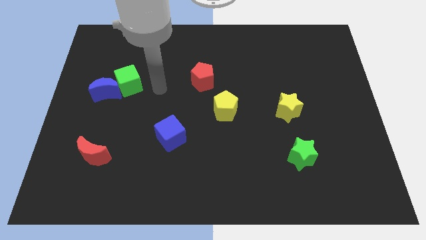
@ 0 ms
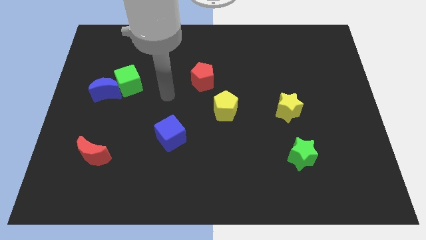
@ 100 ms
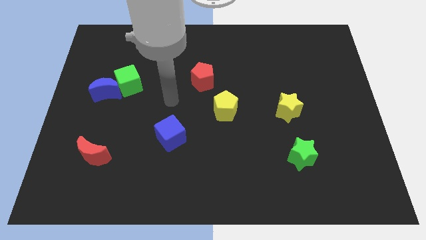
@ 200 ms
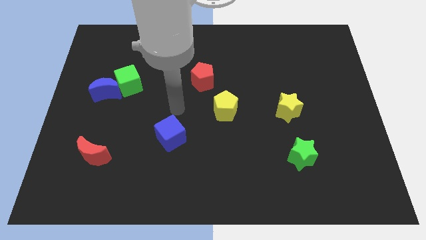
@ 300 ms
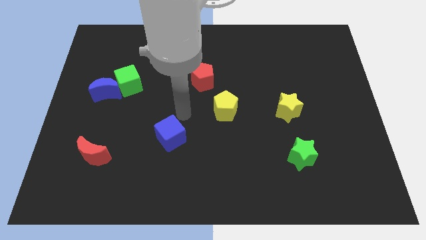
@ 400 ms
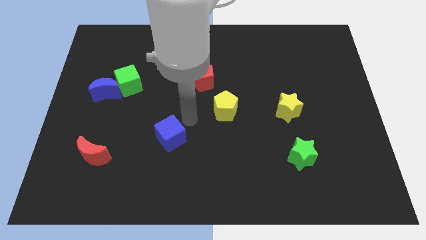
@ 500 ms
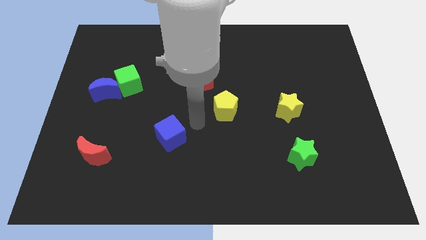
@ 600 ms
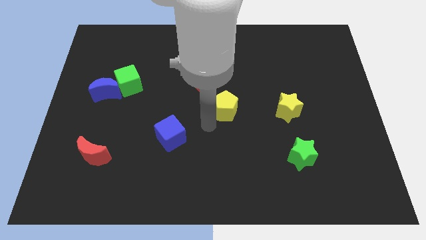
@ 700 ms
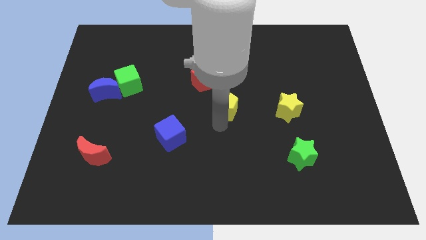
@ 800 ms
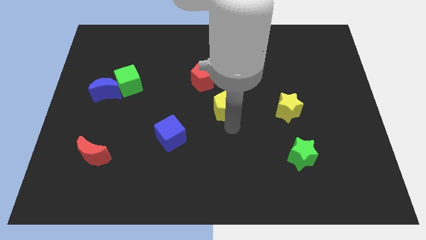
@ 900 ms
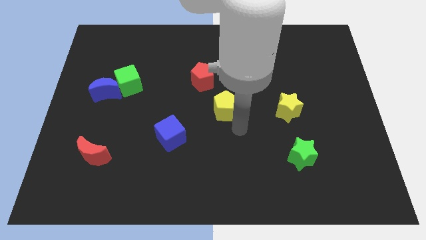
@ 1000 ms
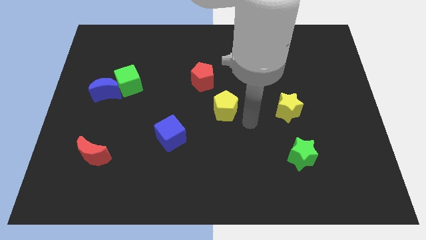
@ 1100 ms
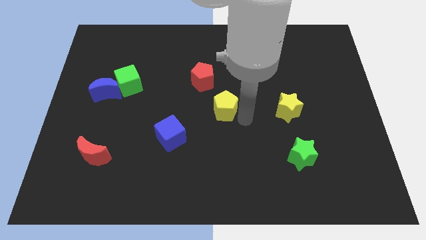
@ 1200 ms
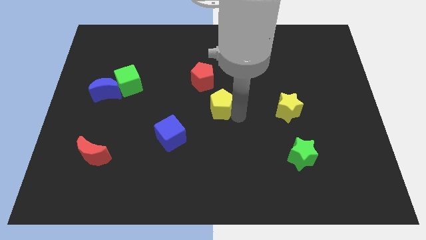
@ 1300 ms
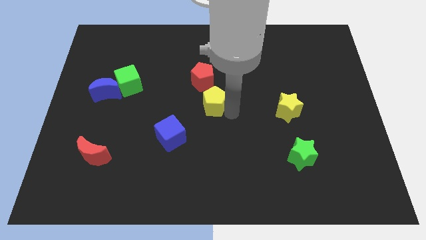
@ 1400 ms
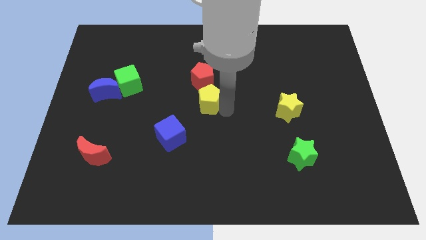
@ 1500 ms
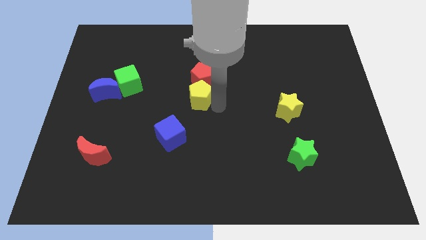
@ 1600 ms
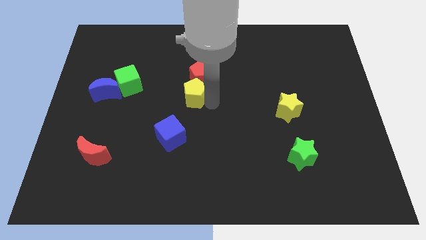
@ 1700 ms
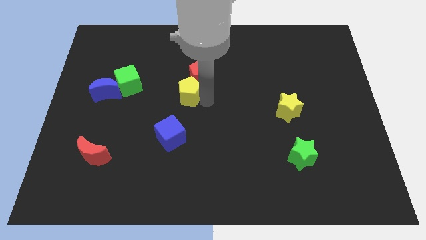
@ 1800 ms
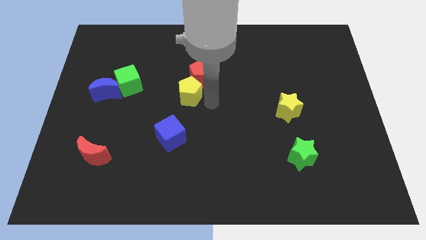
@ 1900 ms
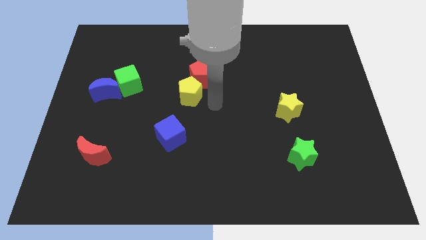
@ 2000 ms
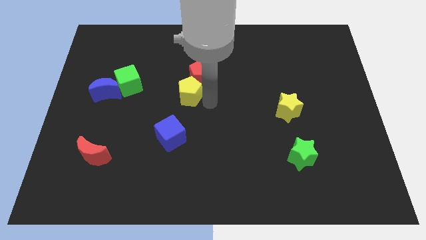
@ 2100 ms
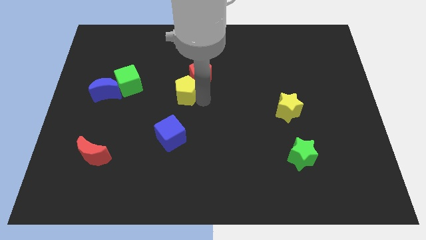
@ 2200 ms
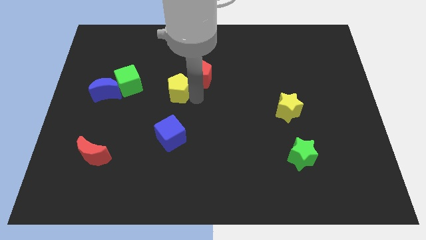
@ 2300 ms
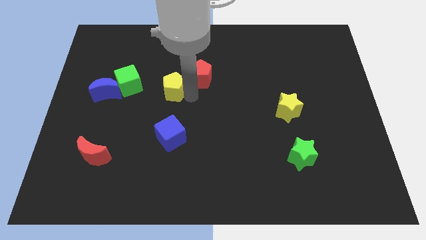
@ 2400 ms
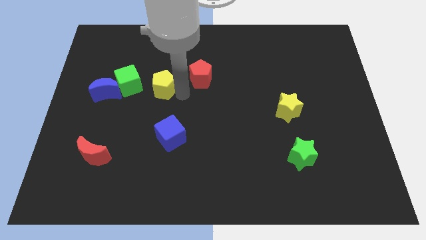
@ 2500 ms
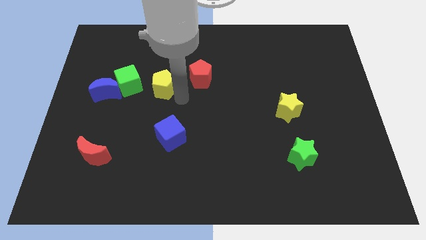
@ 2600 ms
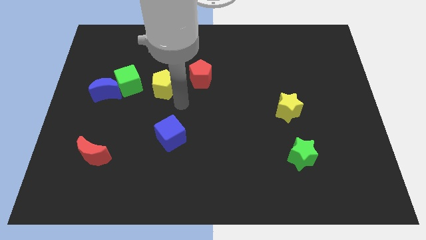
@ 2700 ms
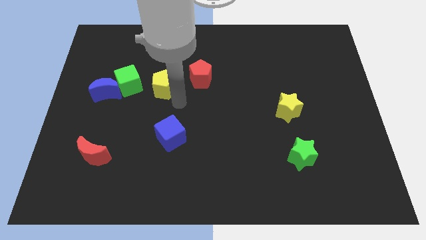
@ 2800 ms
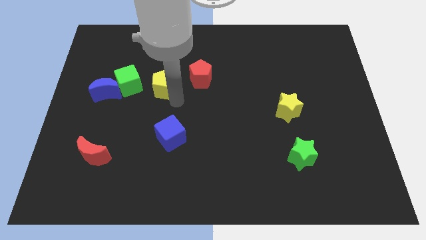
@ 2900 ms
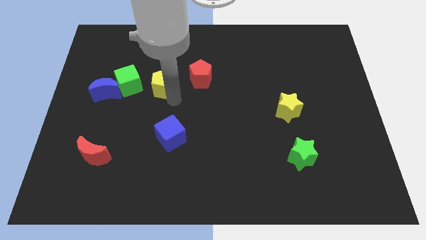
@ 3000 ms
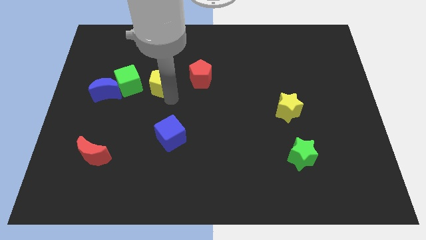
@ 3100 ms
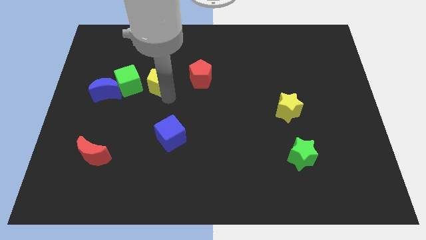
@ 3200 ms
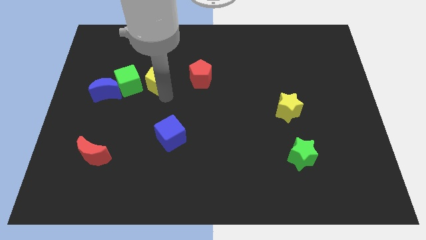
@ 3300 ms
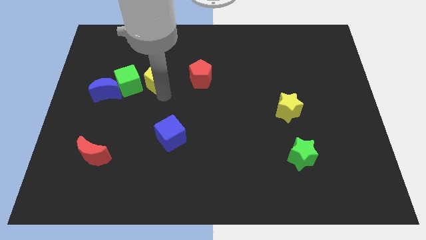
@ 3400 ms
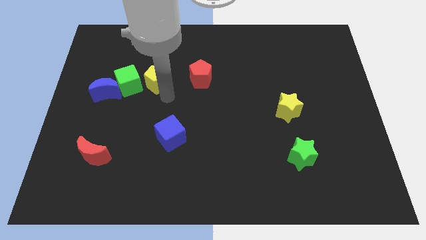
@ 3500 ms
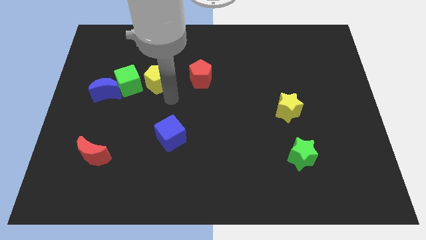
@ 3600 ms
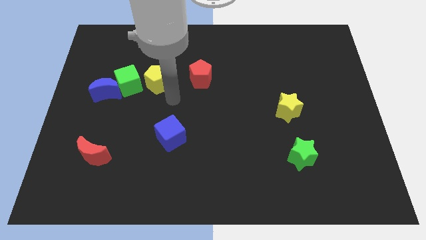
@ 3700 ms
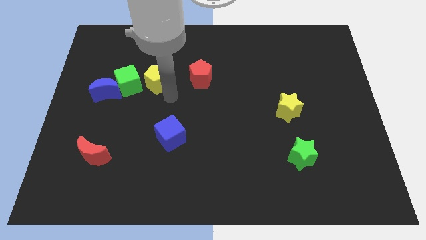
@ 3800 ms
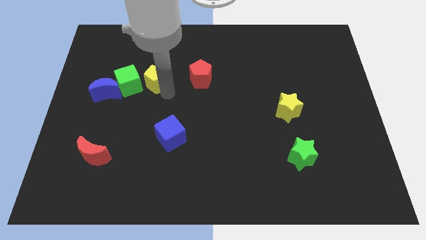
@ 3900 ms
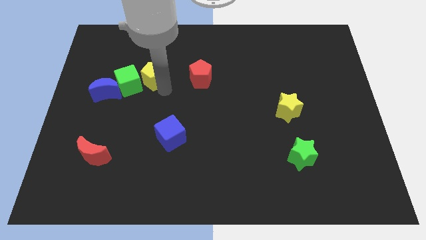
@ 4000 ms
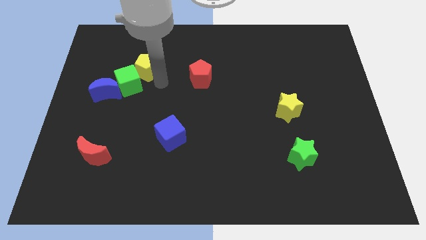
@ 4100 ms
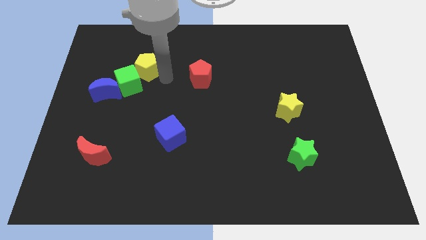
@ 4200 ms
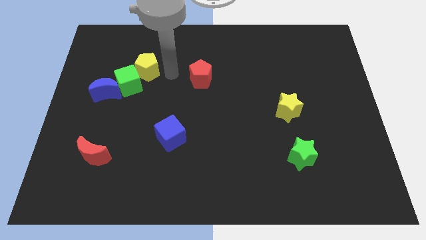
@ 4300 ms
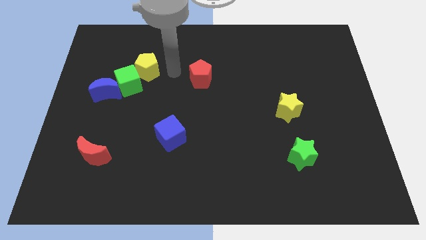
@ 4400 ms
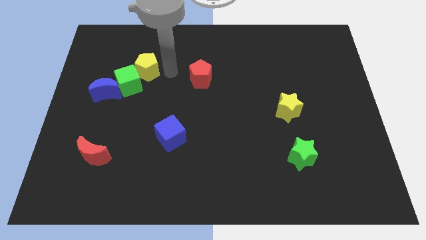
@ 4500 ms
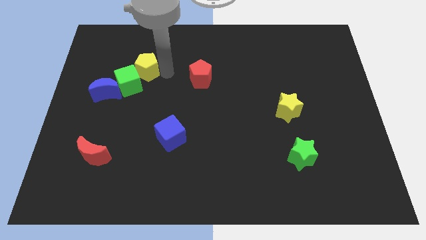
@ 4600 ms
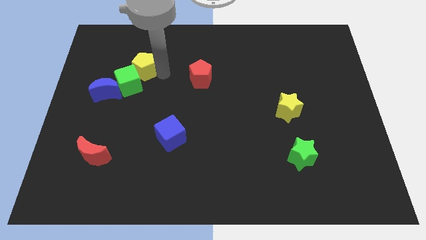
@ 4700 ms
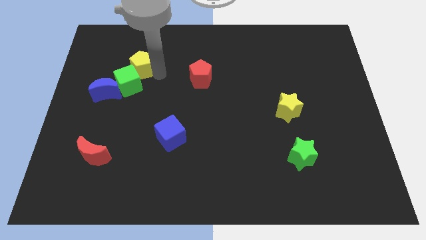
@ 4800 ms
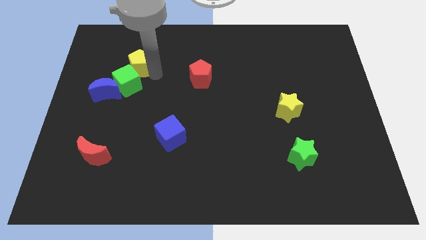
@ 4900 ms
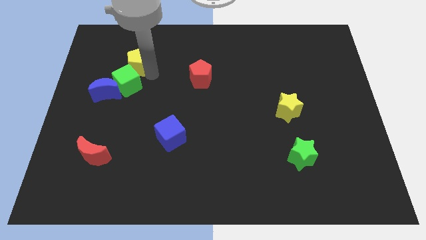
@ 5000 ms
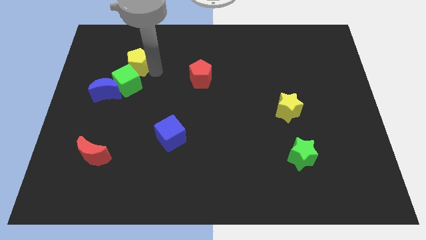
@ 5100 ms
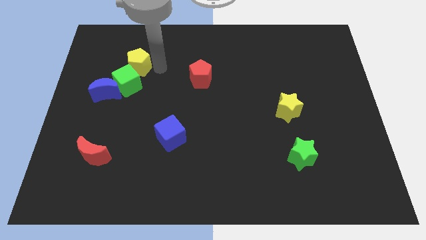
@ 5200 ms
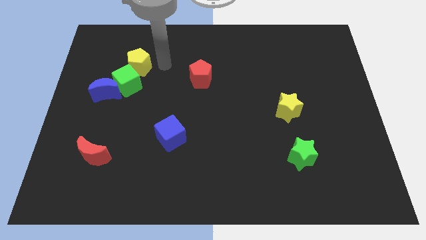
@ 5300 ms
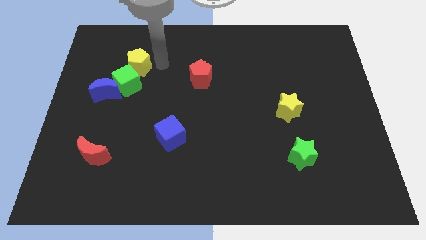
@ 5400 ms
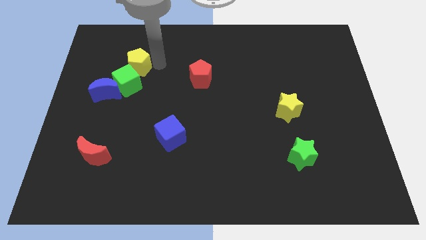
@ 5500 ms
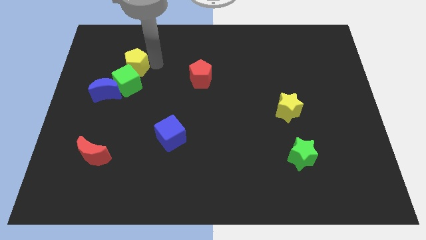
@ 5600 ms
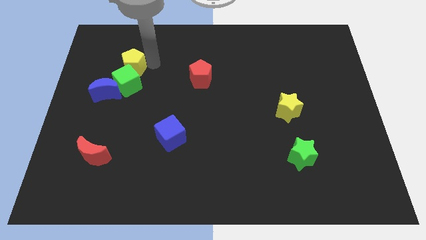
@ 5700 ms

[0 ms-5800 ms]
slide the yellow pentagon diagonally up and to the left of the green cube
